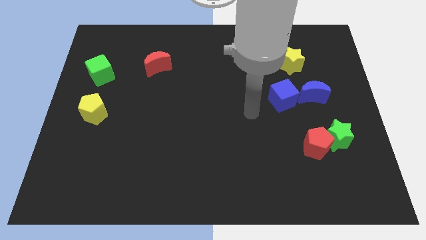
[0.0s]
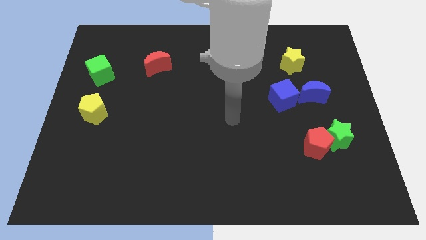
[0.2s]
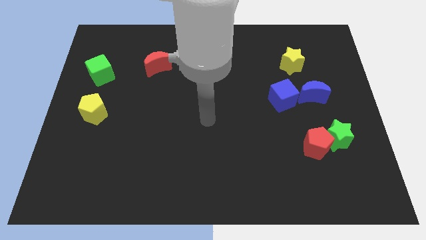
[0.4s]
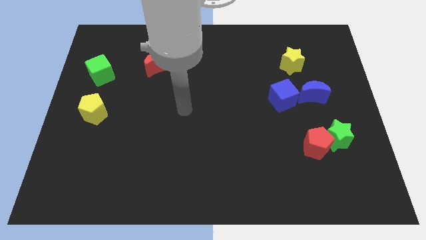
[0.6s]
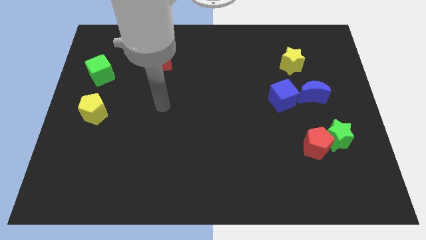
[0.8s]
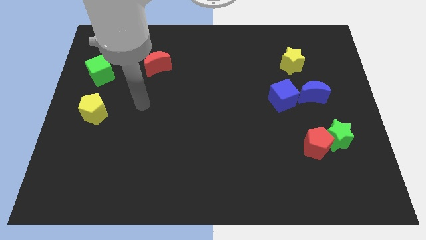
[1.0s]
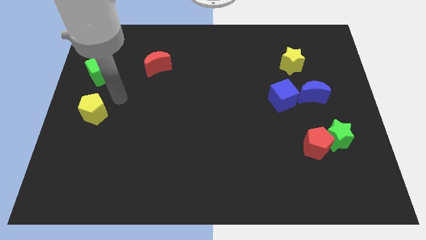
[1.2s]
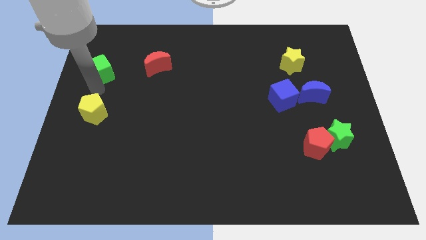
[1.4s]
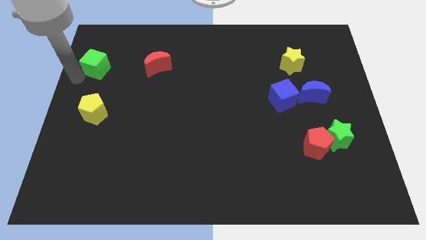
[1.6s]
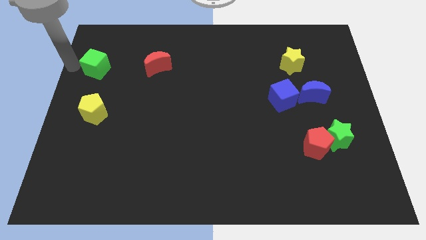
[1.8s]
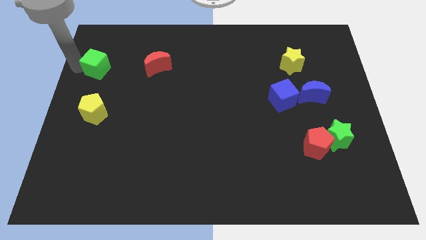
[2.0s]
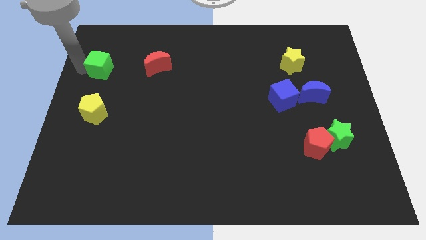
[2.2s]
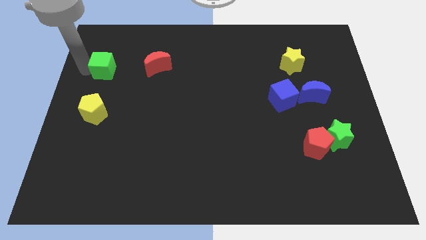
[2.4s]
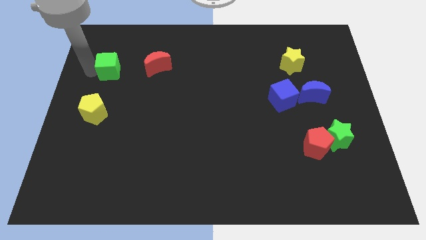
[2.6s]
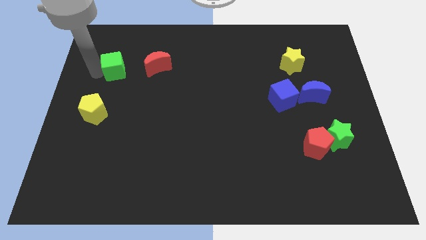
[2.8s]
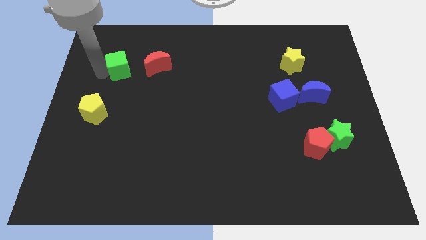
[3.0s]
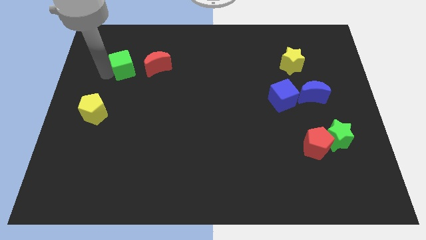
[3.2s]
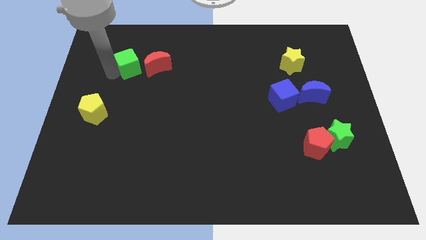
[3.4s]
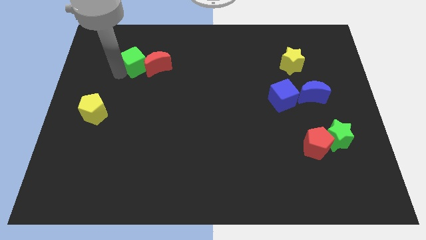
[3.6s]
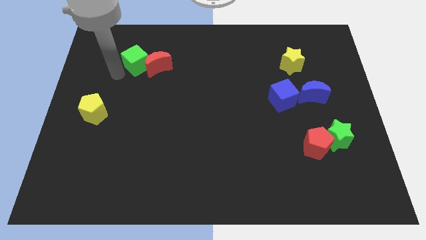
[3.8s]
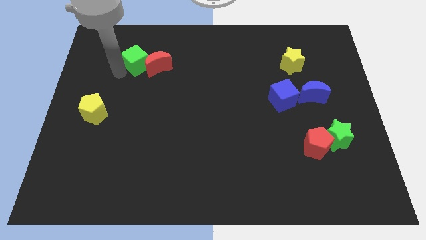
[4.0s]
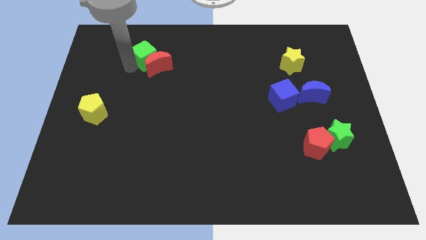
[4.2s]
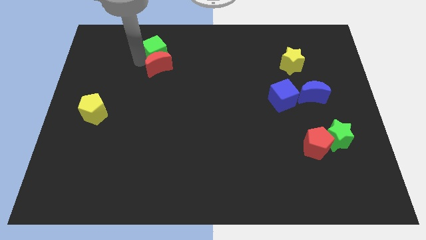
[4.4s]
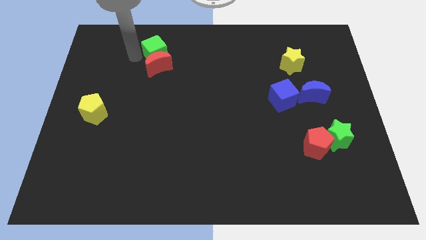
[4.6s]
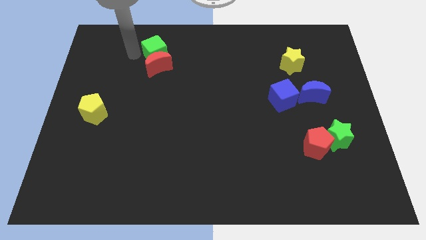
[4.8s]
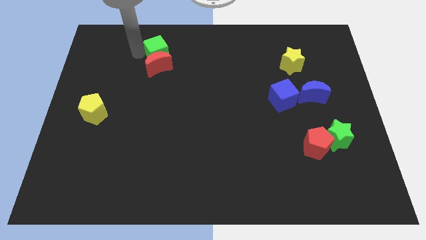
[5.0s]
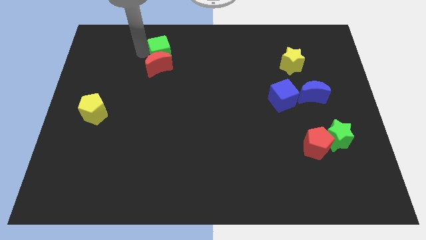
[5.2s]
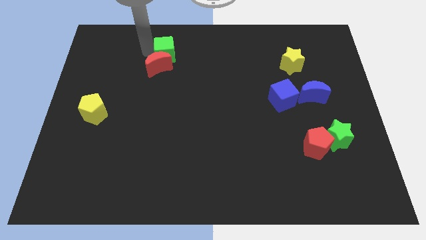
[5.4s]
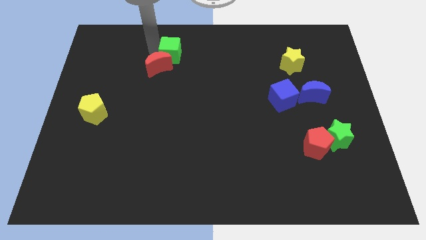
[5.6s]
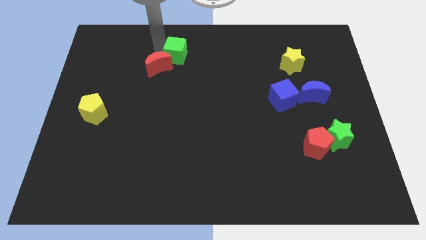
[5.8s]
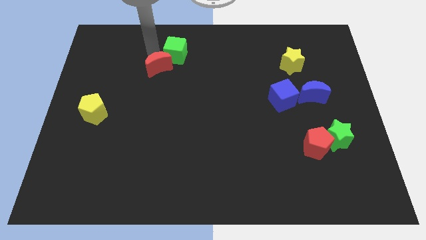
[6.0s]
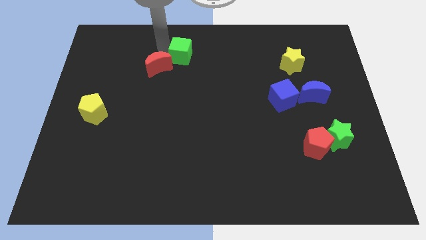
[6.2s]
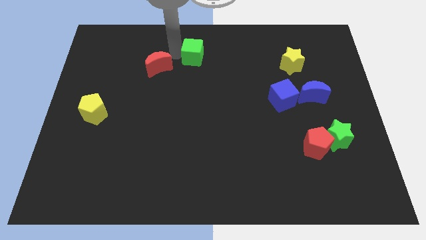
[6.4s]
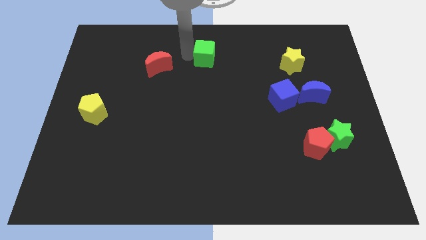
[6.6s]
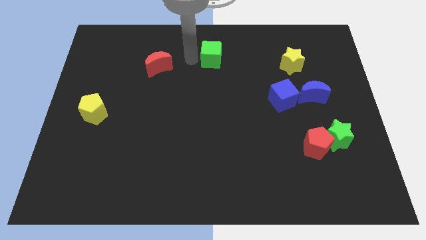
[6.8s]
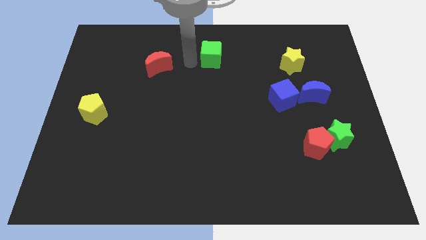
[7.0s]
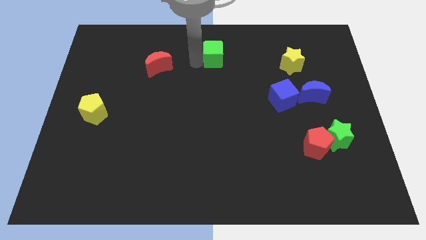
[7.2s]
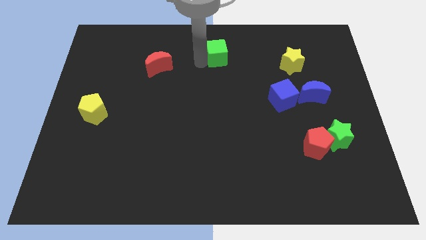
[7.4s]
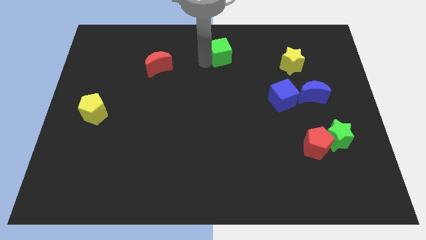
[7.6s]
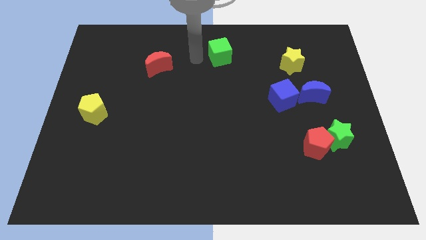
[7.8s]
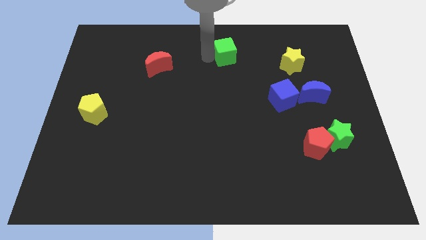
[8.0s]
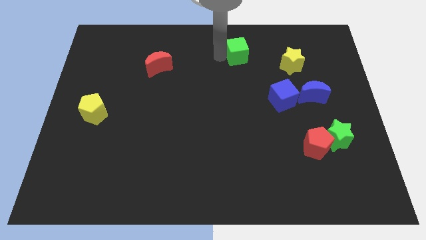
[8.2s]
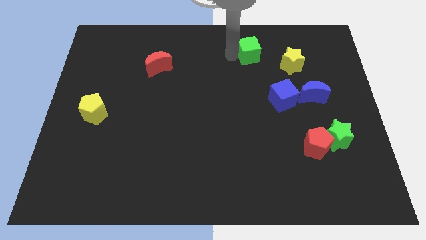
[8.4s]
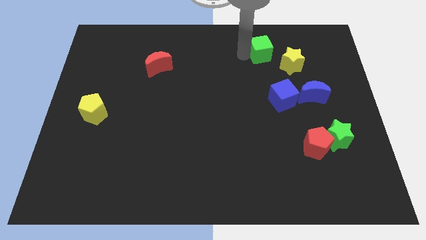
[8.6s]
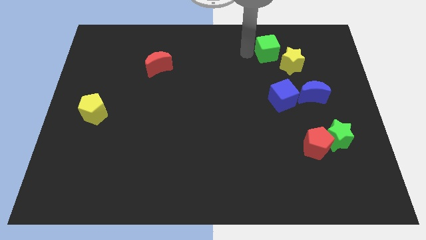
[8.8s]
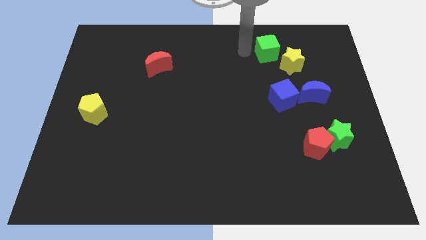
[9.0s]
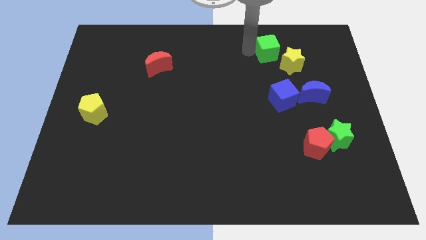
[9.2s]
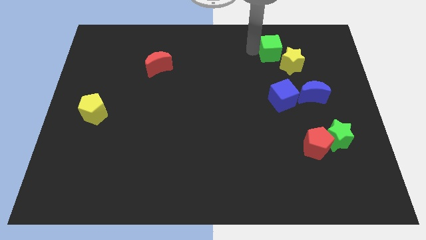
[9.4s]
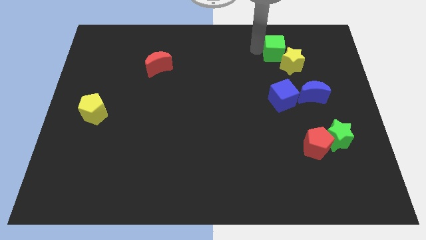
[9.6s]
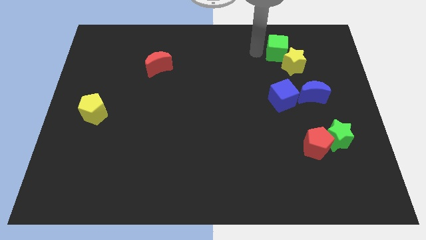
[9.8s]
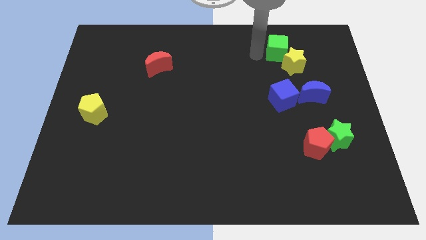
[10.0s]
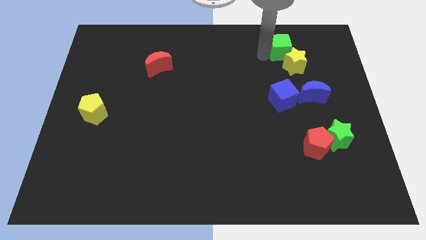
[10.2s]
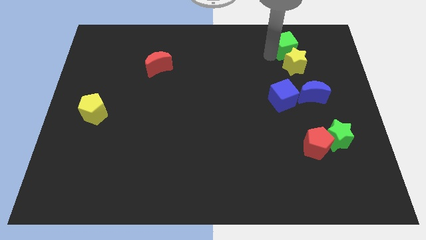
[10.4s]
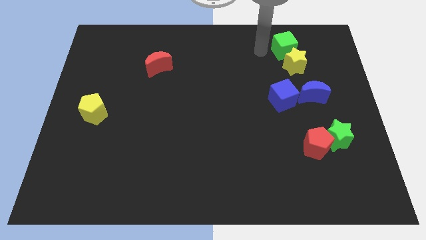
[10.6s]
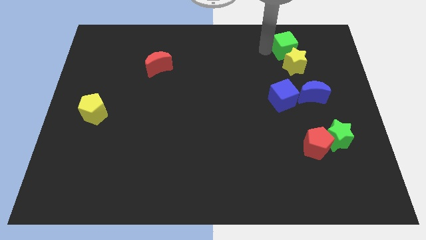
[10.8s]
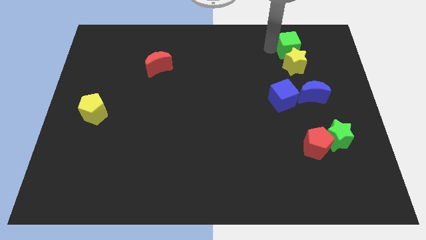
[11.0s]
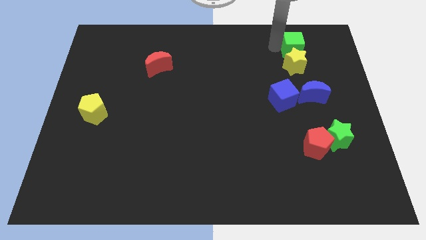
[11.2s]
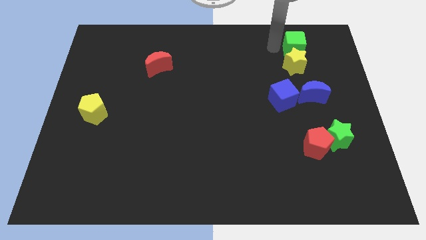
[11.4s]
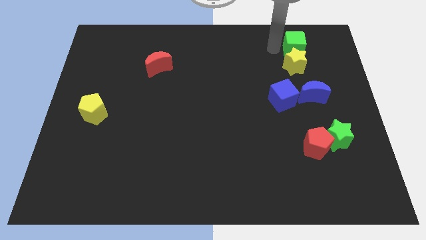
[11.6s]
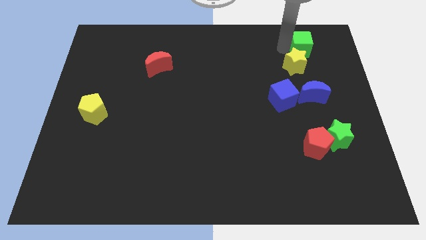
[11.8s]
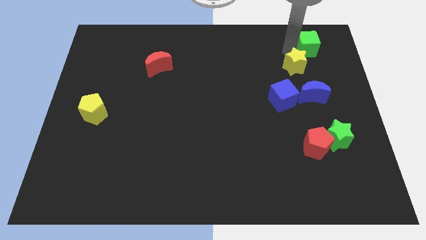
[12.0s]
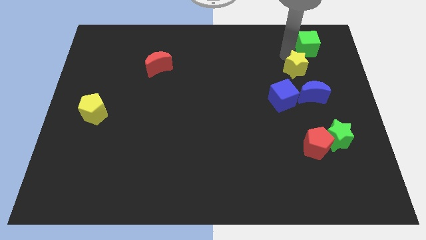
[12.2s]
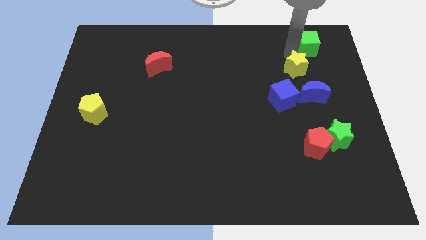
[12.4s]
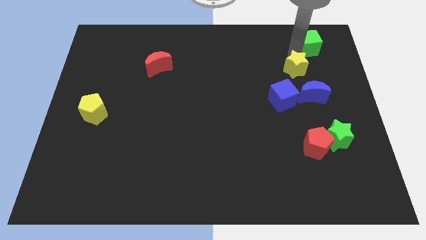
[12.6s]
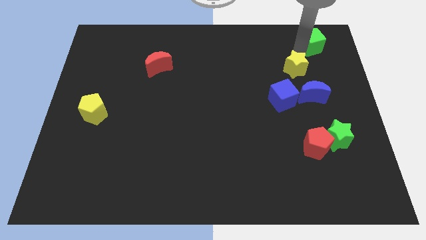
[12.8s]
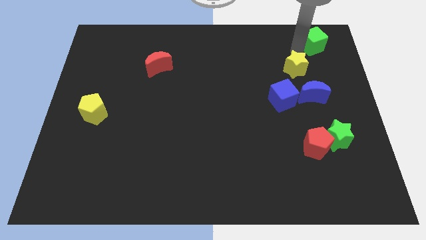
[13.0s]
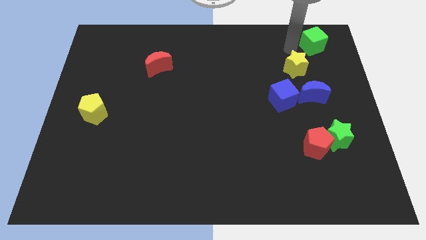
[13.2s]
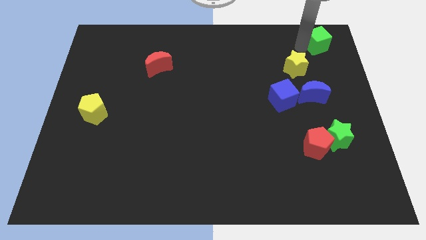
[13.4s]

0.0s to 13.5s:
put the green cube to the upper right corner
